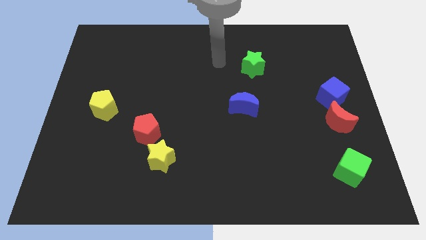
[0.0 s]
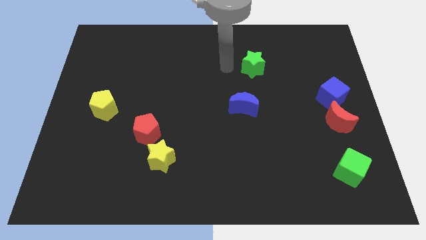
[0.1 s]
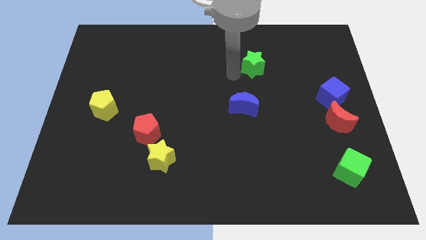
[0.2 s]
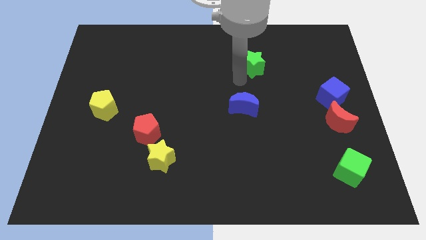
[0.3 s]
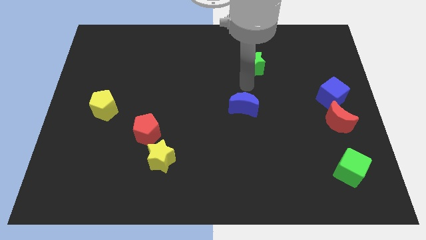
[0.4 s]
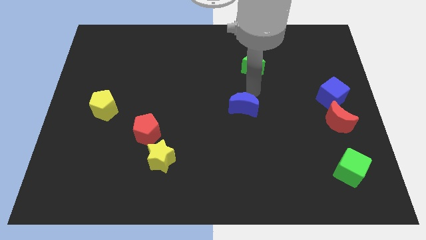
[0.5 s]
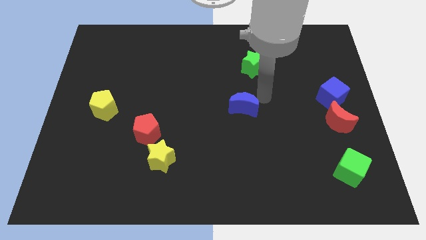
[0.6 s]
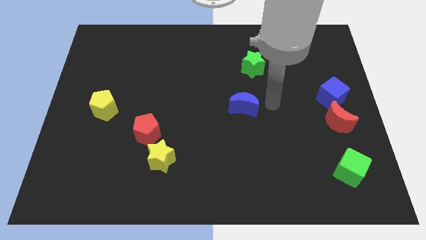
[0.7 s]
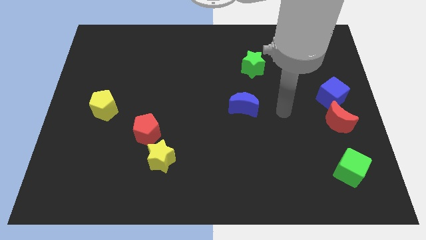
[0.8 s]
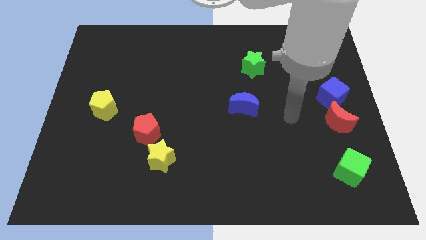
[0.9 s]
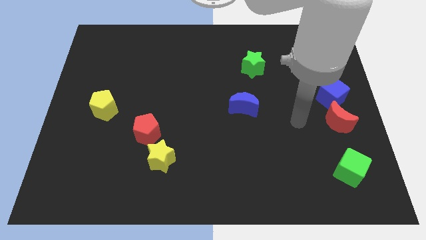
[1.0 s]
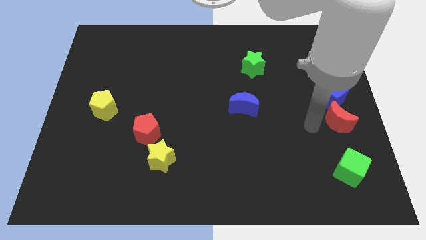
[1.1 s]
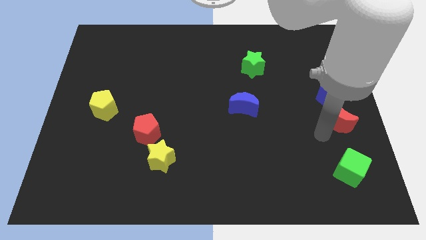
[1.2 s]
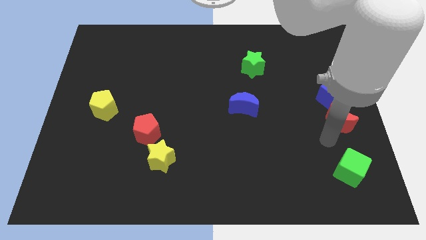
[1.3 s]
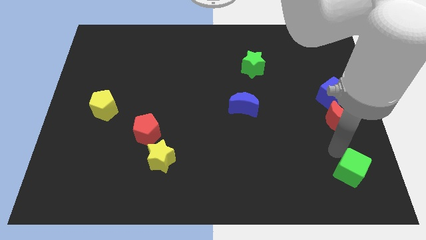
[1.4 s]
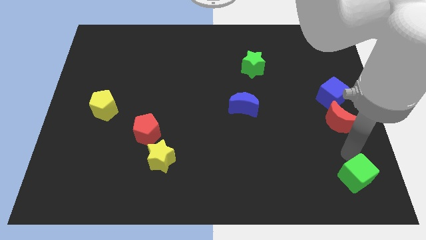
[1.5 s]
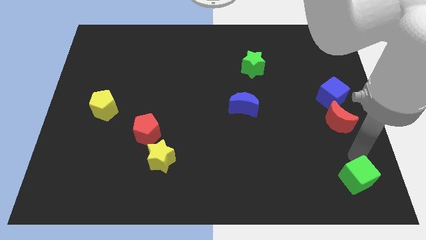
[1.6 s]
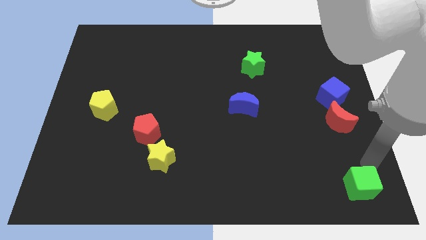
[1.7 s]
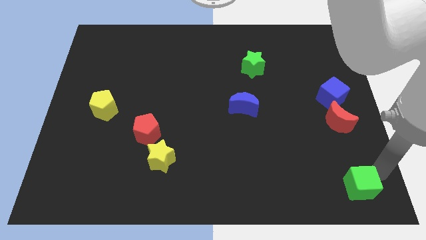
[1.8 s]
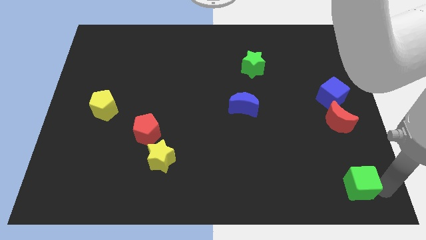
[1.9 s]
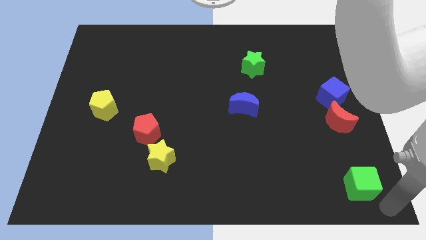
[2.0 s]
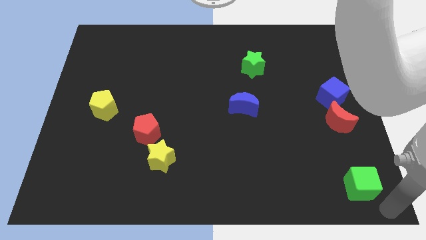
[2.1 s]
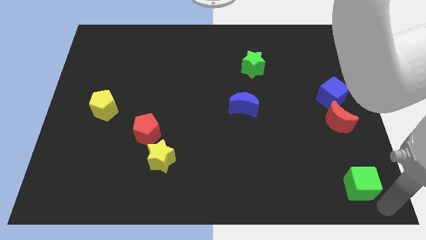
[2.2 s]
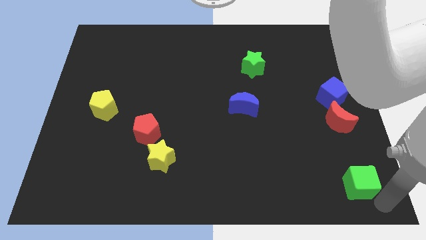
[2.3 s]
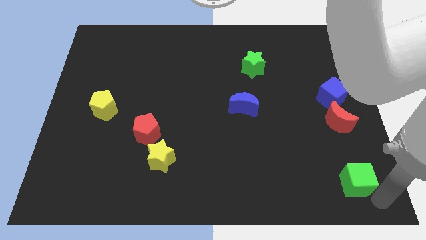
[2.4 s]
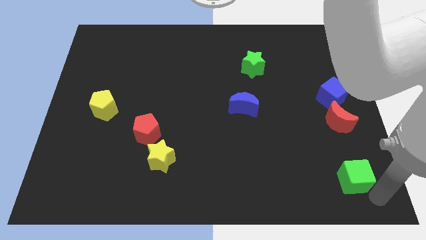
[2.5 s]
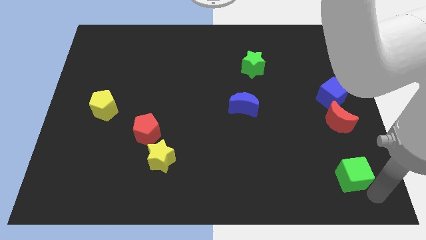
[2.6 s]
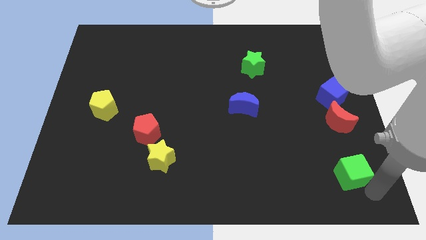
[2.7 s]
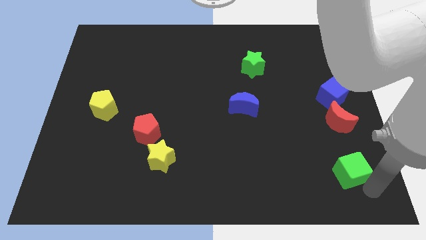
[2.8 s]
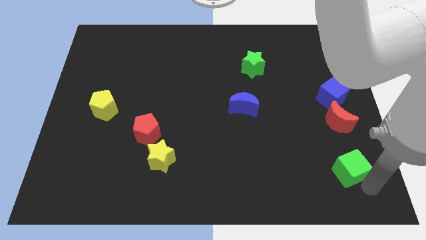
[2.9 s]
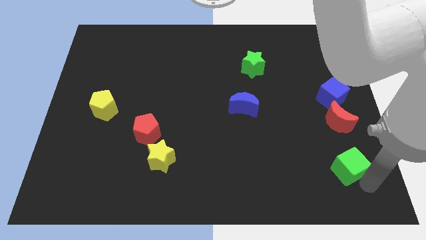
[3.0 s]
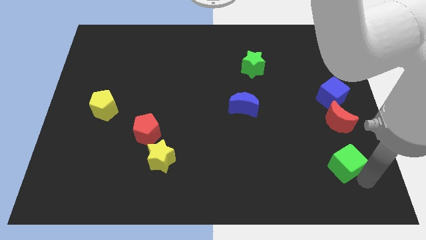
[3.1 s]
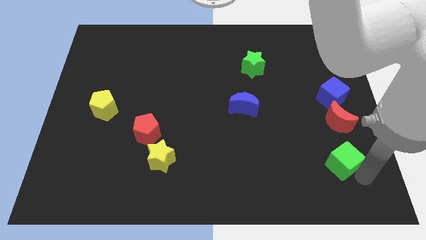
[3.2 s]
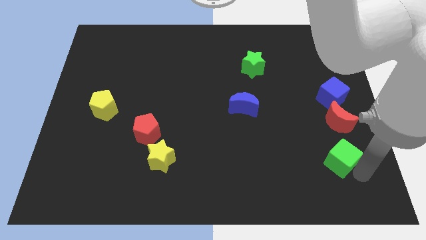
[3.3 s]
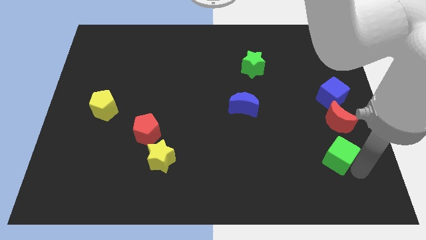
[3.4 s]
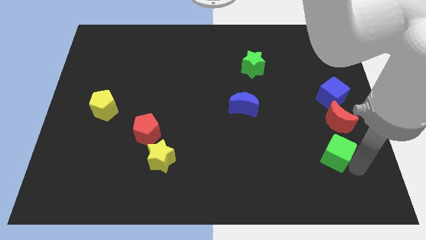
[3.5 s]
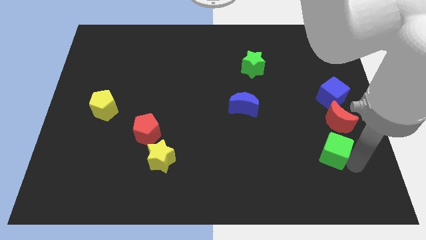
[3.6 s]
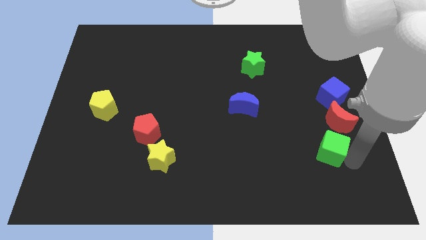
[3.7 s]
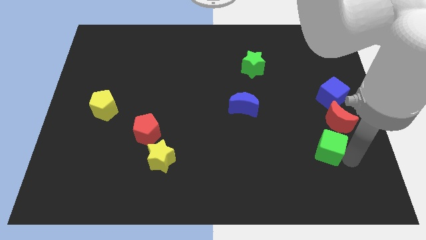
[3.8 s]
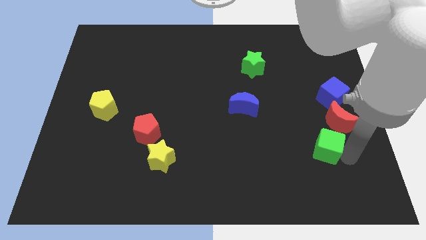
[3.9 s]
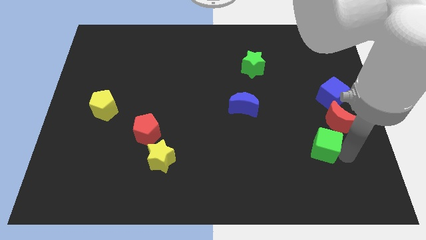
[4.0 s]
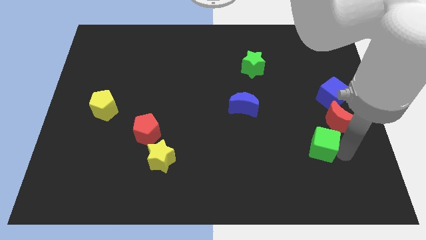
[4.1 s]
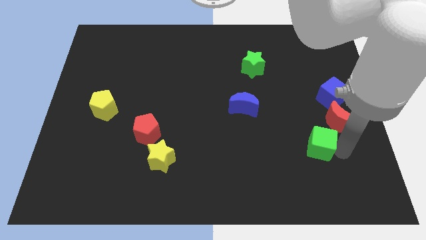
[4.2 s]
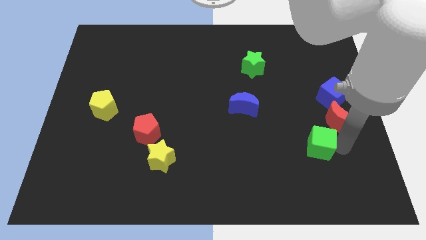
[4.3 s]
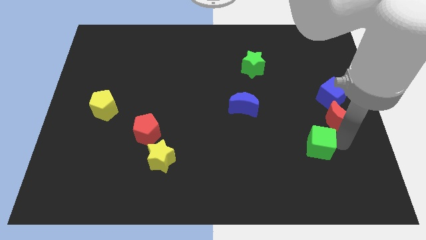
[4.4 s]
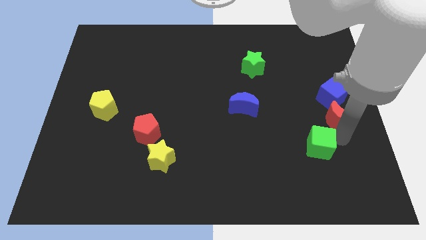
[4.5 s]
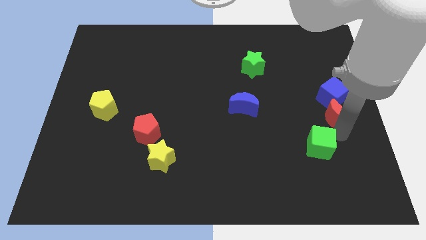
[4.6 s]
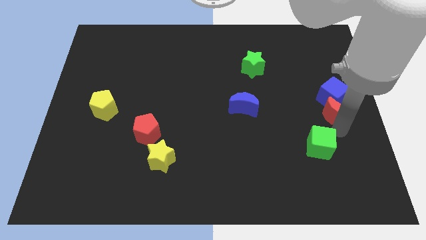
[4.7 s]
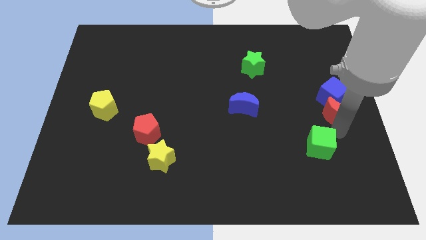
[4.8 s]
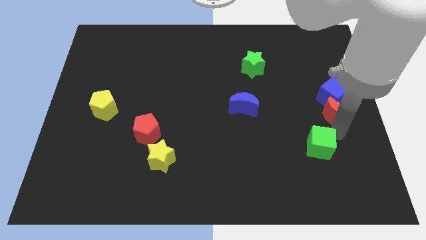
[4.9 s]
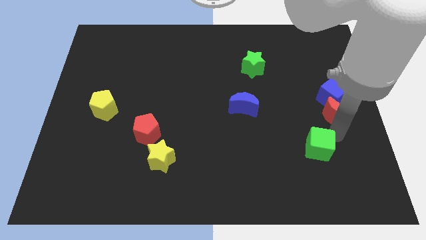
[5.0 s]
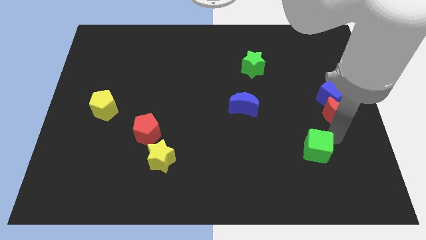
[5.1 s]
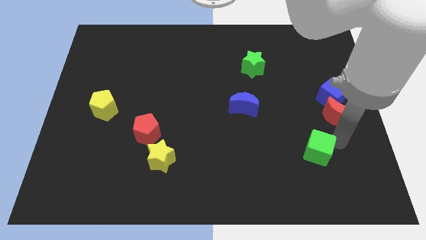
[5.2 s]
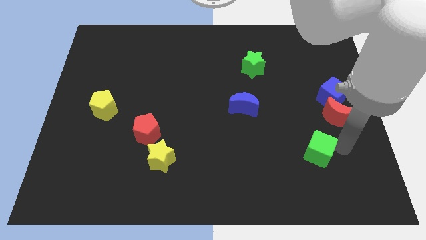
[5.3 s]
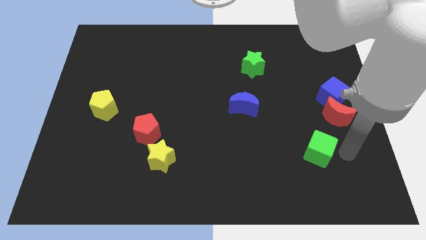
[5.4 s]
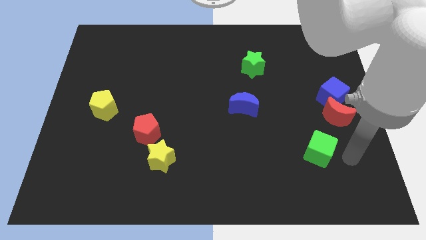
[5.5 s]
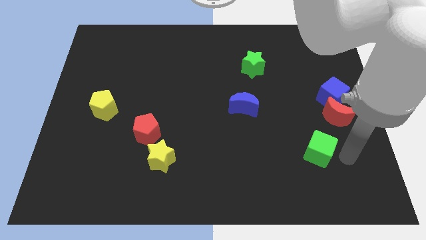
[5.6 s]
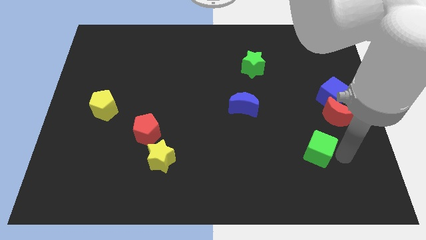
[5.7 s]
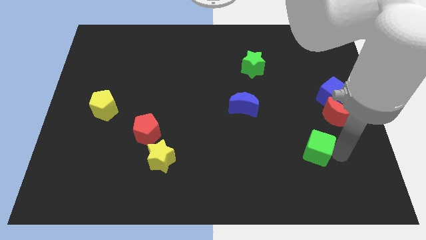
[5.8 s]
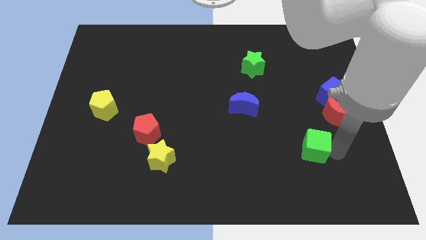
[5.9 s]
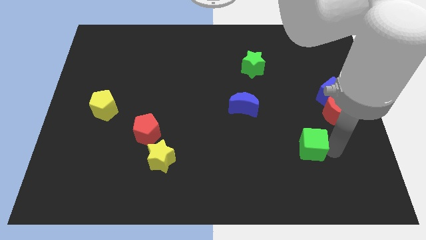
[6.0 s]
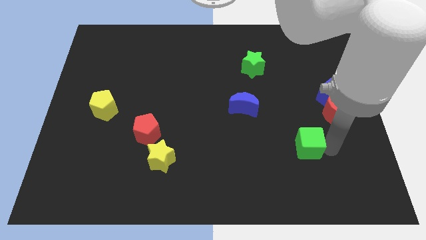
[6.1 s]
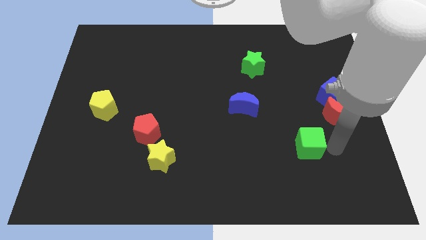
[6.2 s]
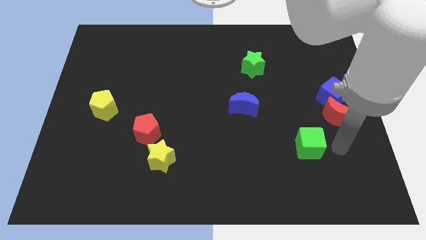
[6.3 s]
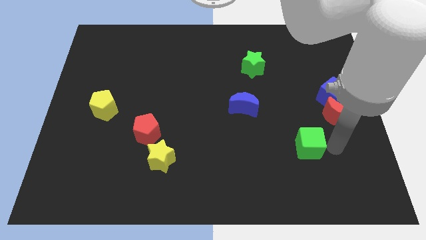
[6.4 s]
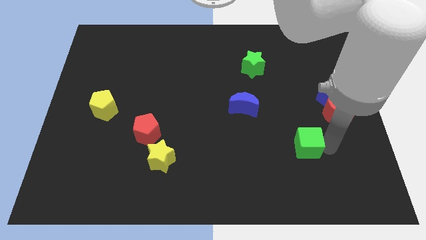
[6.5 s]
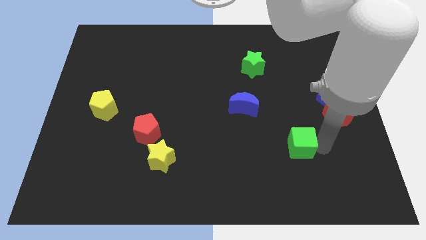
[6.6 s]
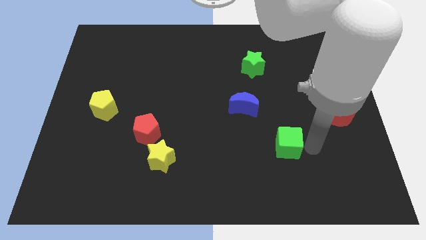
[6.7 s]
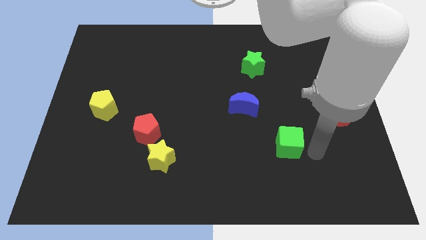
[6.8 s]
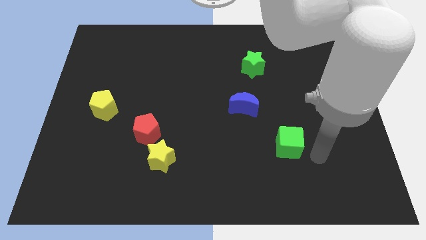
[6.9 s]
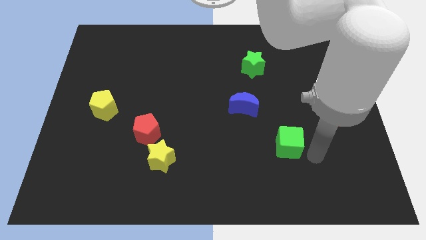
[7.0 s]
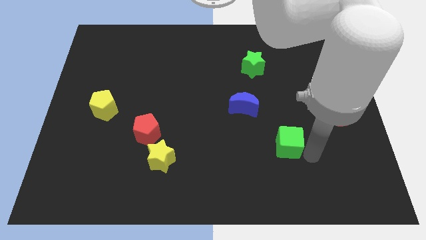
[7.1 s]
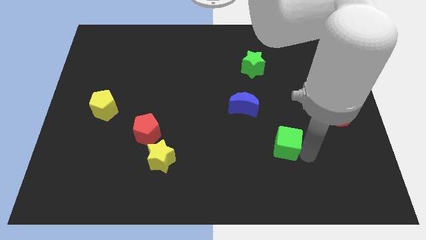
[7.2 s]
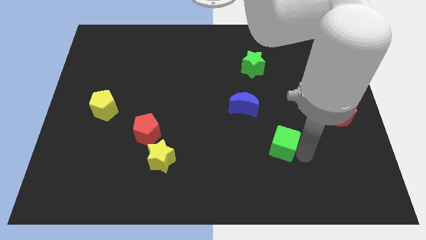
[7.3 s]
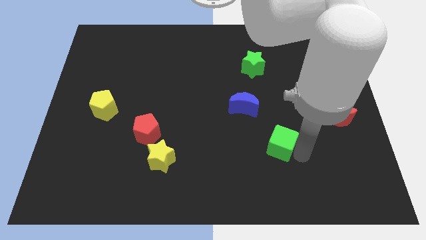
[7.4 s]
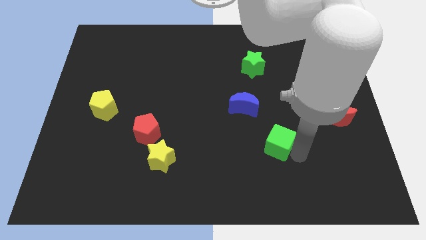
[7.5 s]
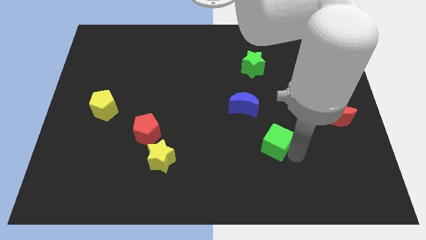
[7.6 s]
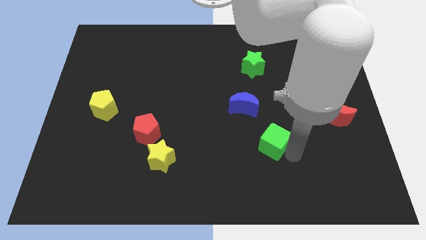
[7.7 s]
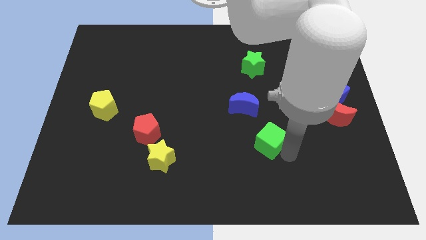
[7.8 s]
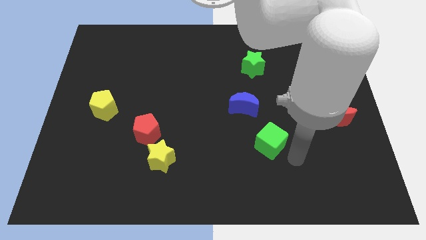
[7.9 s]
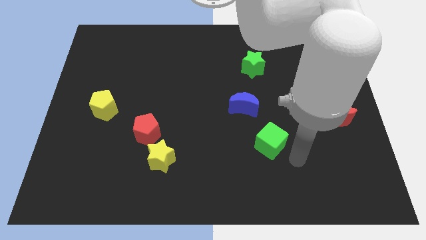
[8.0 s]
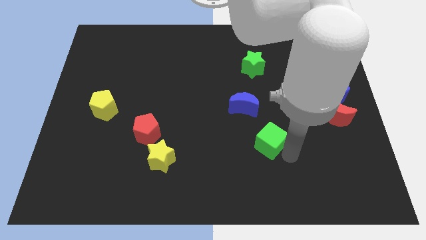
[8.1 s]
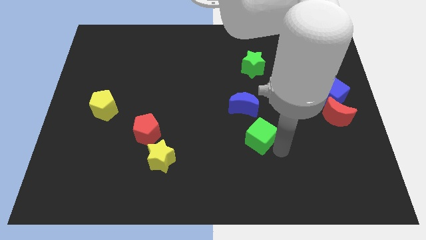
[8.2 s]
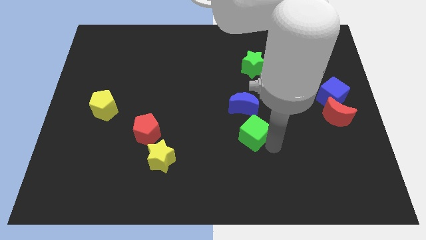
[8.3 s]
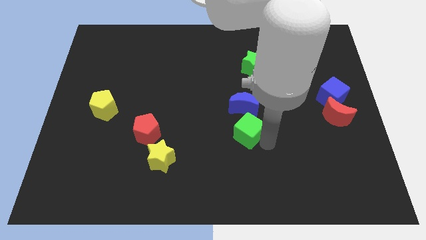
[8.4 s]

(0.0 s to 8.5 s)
push the green cube to the center
